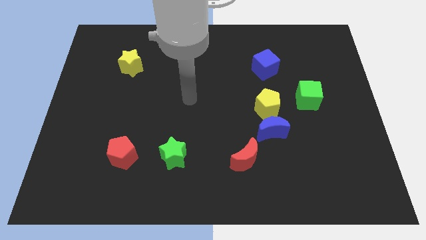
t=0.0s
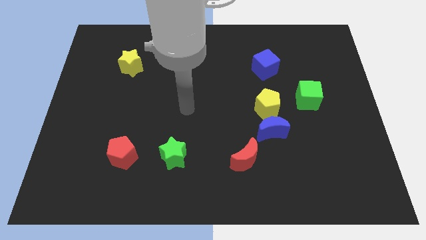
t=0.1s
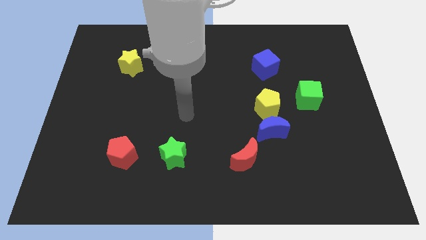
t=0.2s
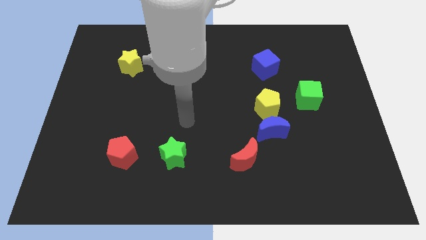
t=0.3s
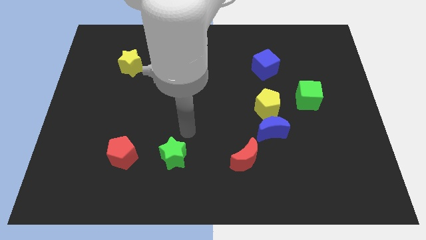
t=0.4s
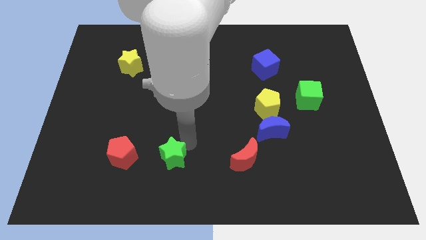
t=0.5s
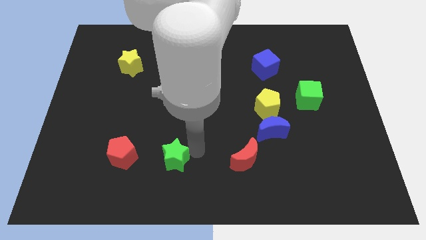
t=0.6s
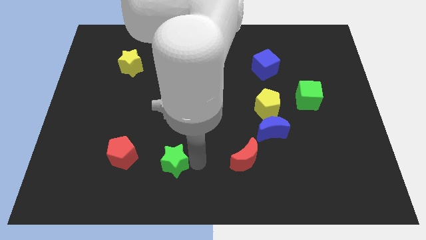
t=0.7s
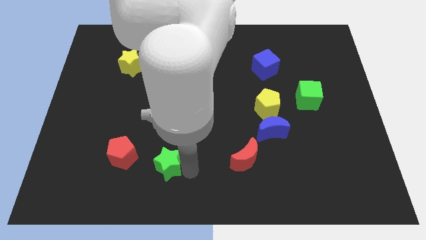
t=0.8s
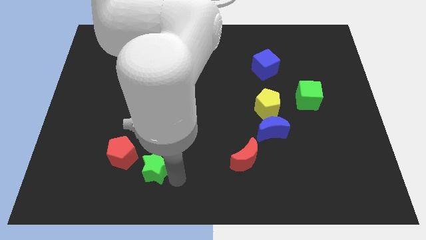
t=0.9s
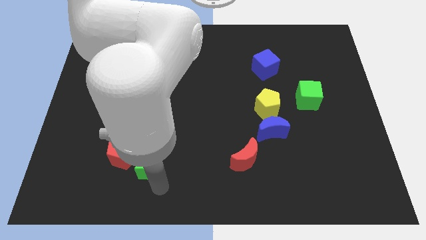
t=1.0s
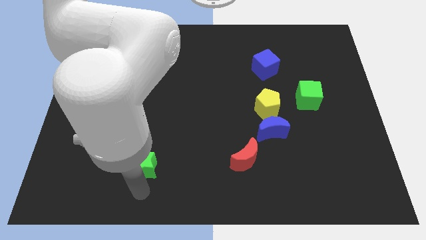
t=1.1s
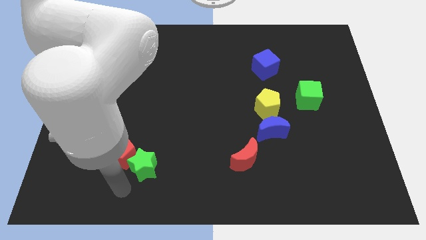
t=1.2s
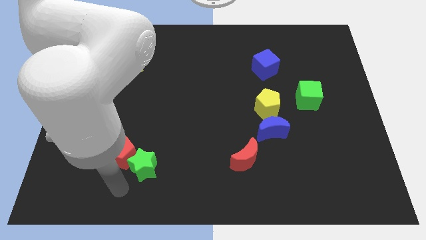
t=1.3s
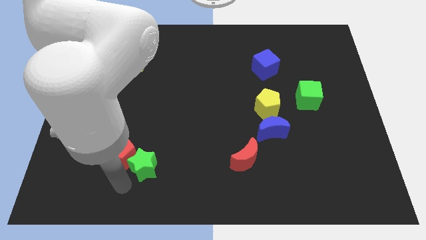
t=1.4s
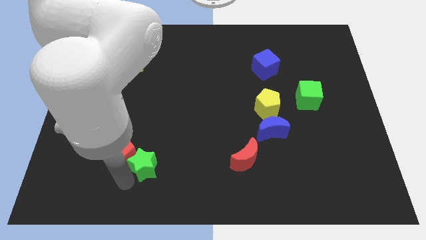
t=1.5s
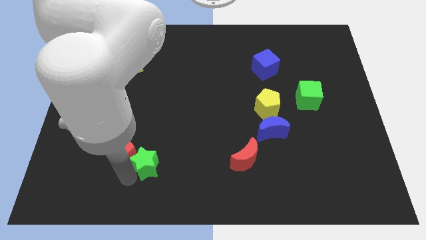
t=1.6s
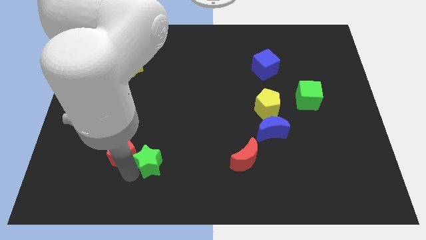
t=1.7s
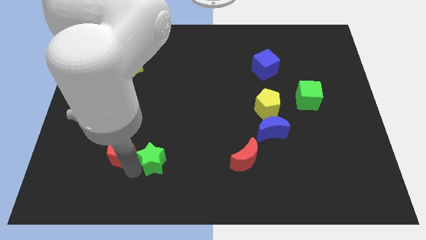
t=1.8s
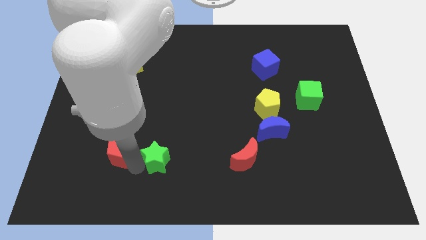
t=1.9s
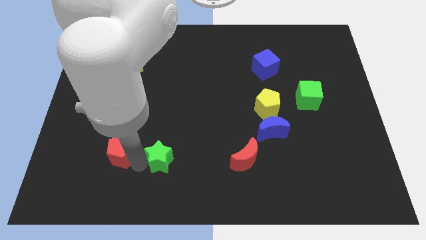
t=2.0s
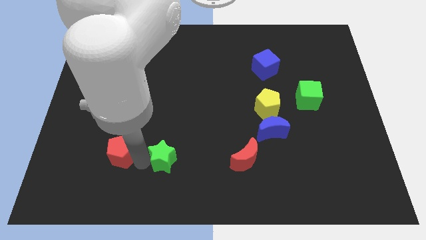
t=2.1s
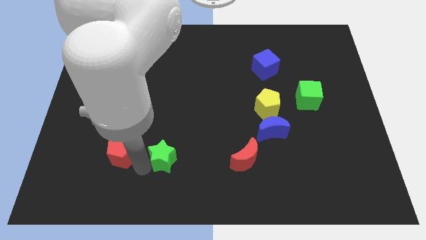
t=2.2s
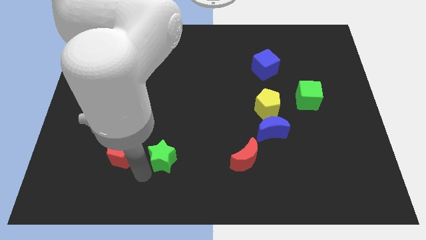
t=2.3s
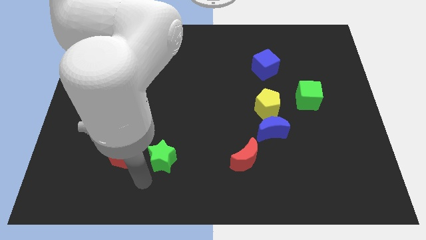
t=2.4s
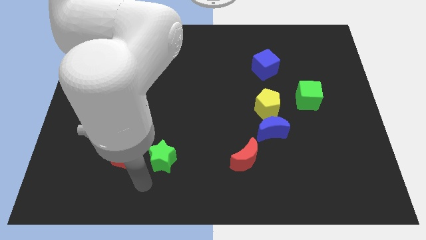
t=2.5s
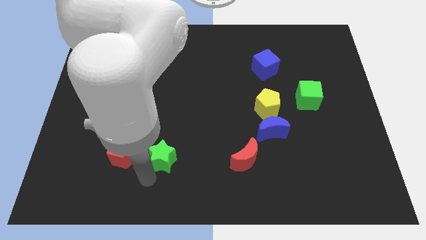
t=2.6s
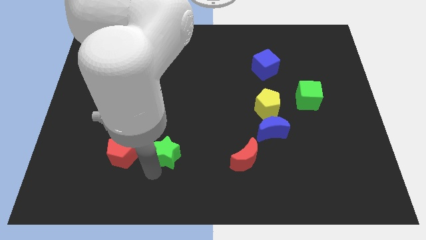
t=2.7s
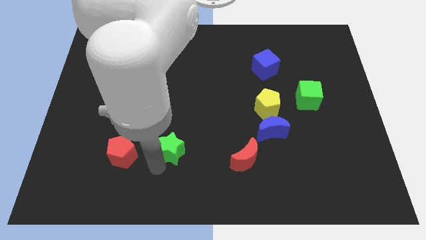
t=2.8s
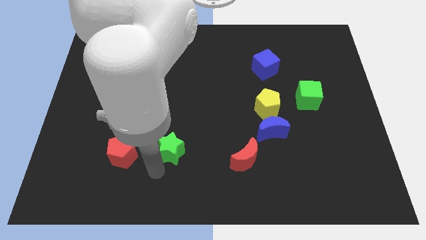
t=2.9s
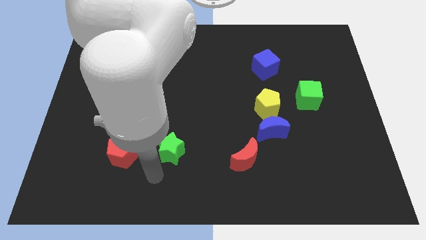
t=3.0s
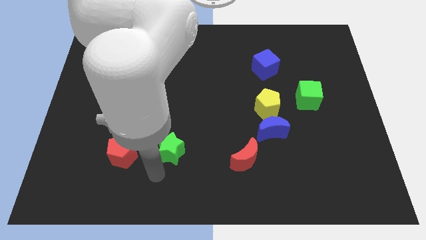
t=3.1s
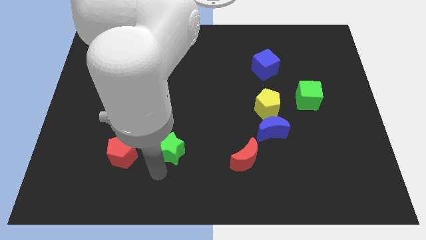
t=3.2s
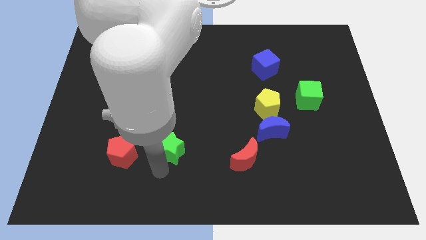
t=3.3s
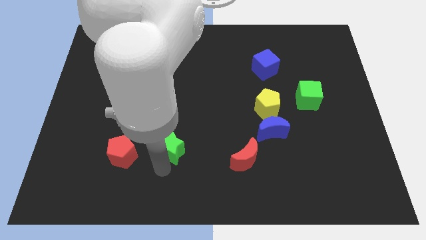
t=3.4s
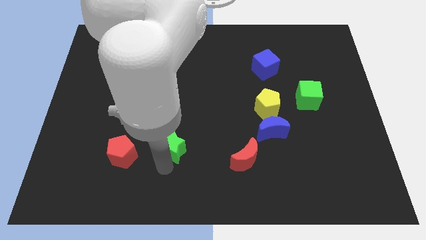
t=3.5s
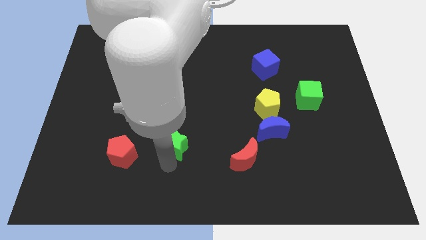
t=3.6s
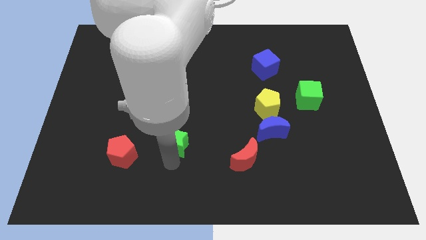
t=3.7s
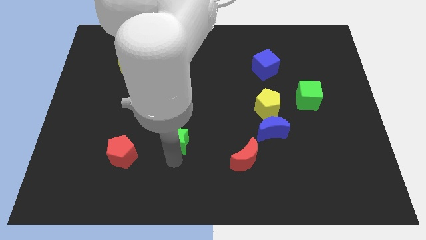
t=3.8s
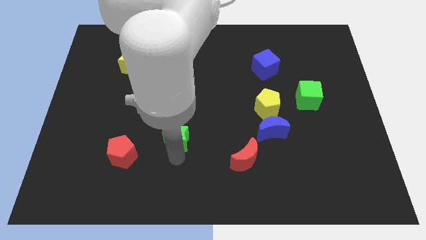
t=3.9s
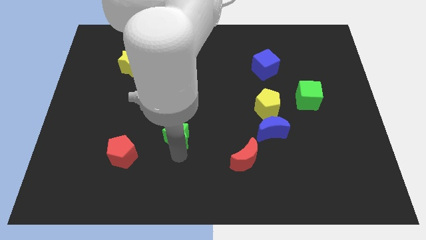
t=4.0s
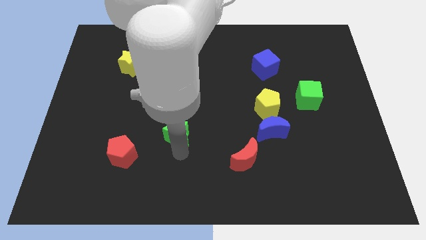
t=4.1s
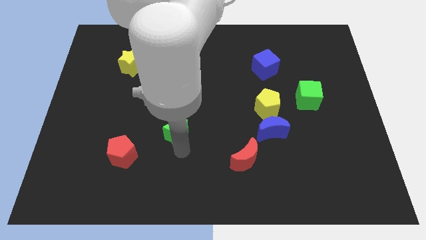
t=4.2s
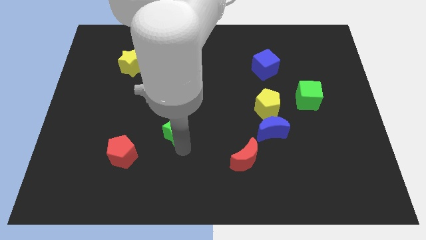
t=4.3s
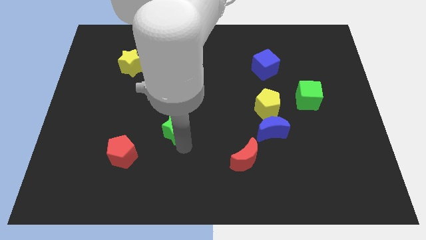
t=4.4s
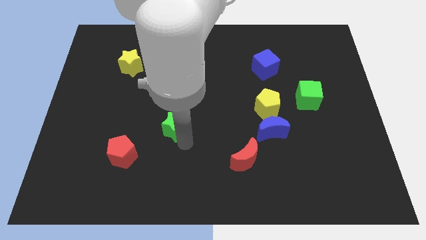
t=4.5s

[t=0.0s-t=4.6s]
slightly move the green star upwards

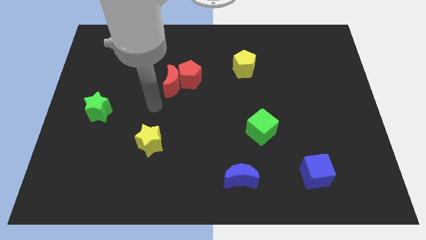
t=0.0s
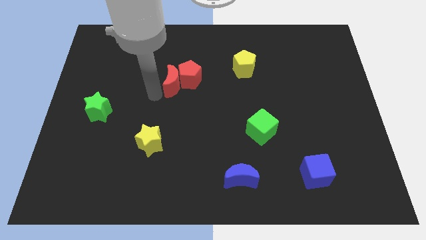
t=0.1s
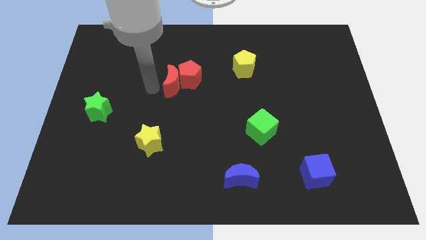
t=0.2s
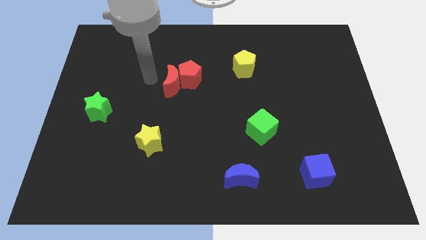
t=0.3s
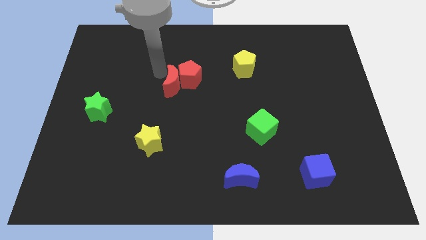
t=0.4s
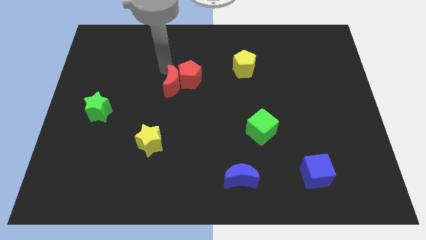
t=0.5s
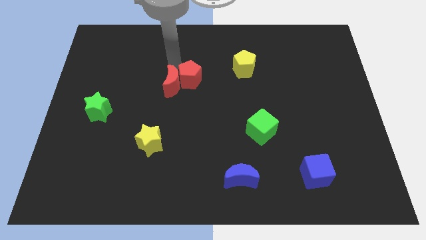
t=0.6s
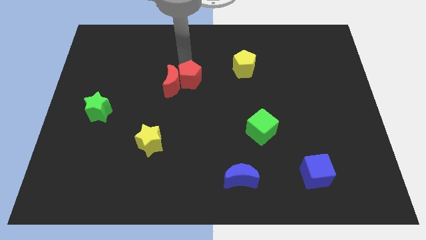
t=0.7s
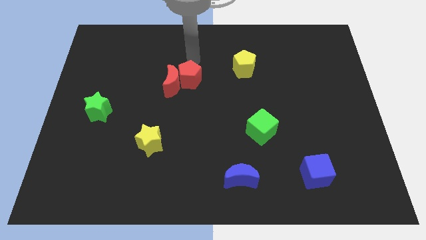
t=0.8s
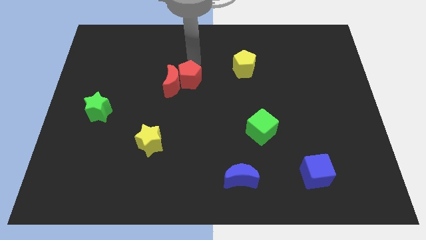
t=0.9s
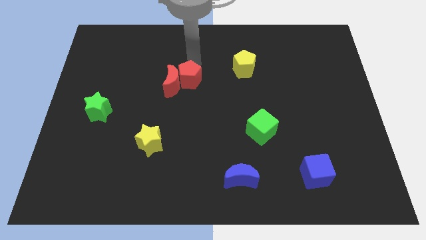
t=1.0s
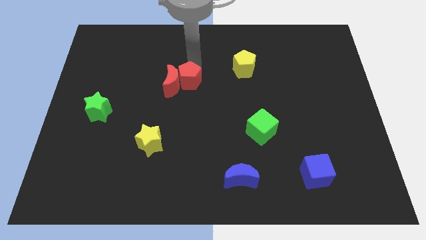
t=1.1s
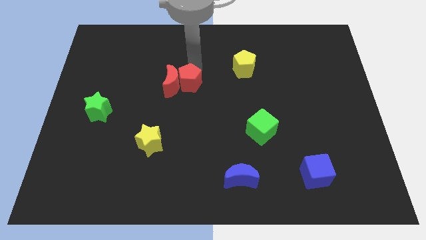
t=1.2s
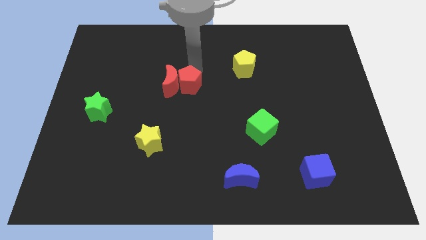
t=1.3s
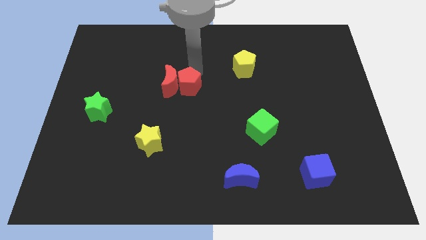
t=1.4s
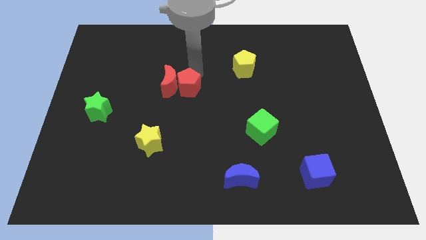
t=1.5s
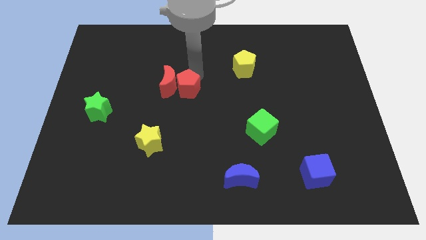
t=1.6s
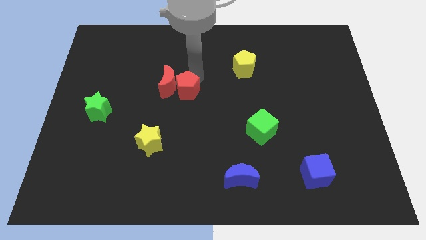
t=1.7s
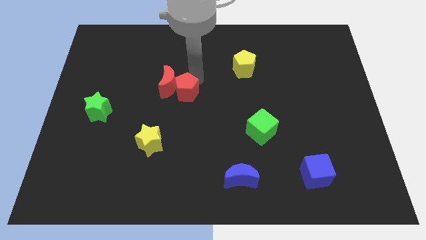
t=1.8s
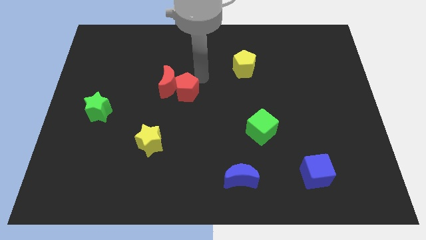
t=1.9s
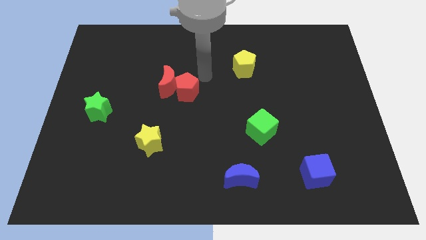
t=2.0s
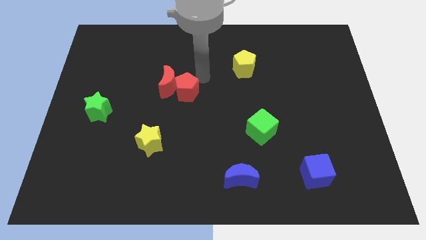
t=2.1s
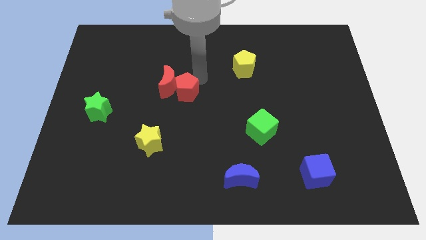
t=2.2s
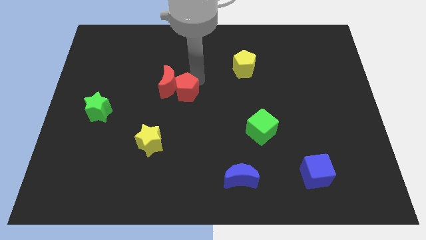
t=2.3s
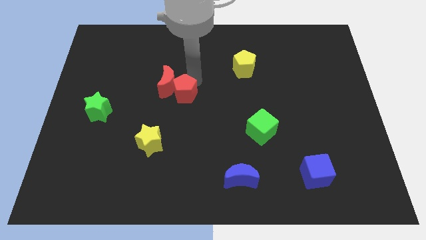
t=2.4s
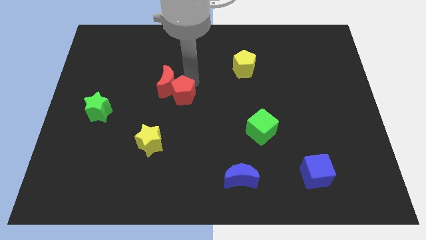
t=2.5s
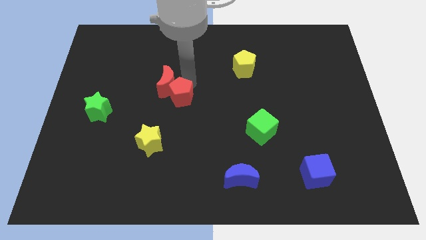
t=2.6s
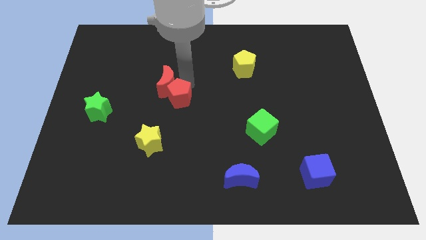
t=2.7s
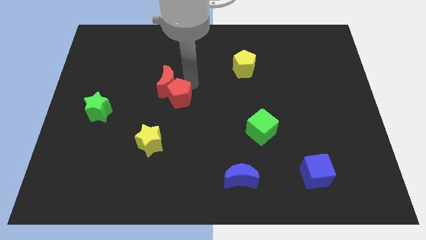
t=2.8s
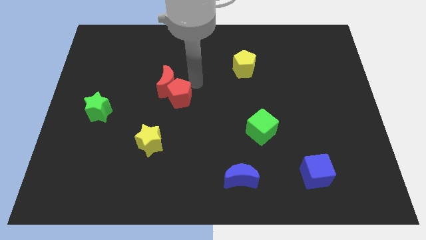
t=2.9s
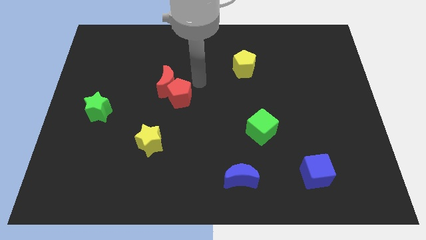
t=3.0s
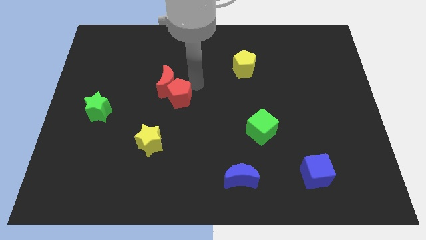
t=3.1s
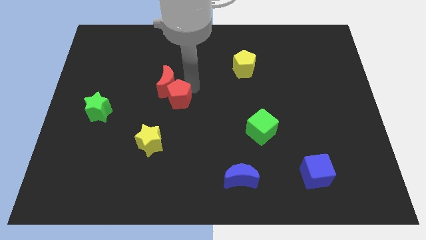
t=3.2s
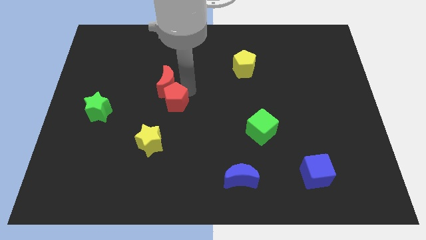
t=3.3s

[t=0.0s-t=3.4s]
push the red pentagon down and left somewhat
